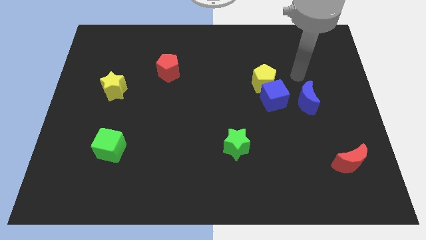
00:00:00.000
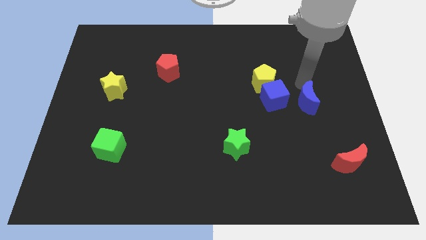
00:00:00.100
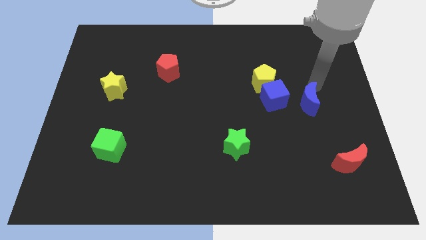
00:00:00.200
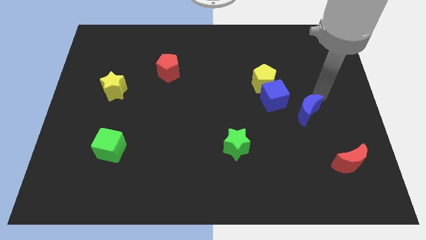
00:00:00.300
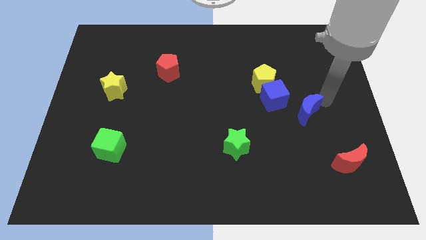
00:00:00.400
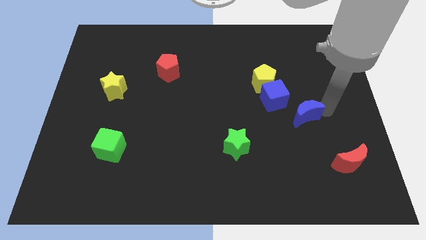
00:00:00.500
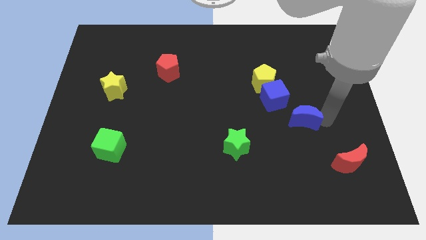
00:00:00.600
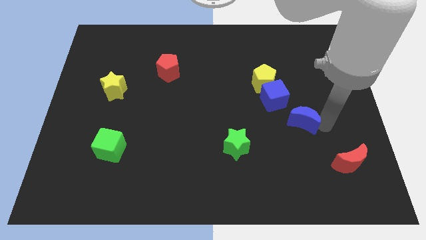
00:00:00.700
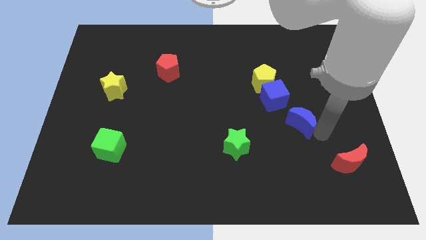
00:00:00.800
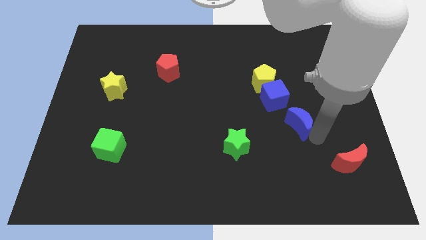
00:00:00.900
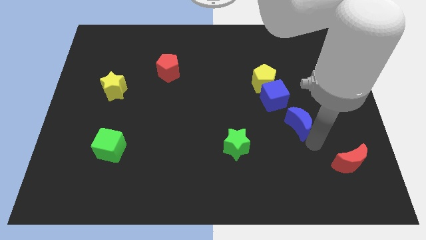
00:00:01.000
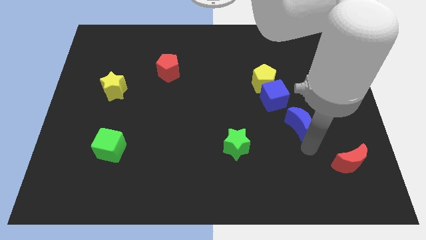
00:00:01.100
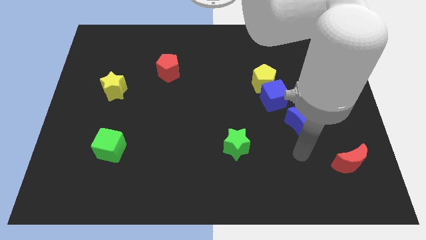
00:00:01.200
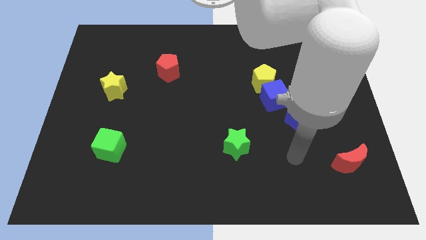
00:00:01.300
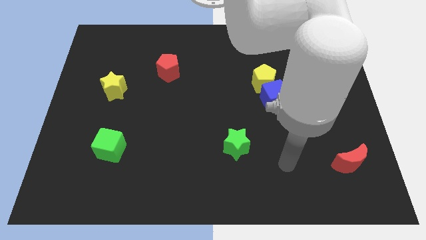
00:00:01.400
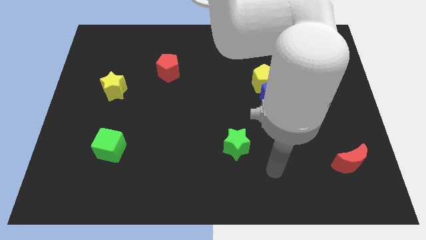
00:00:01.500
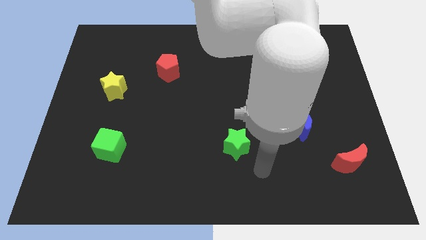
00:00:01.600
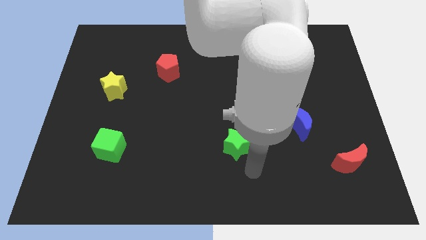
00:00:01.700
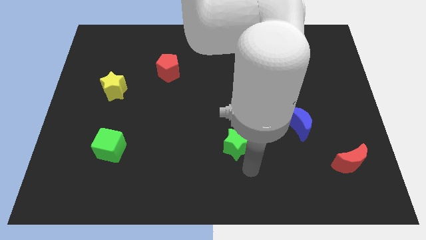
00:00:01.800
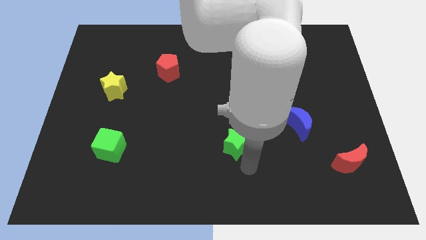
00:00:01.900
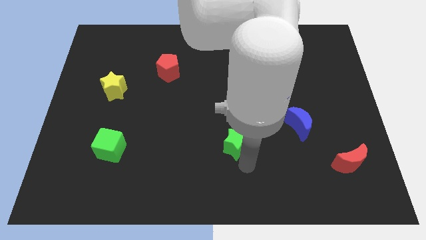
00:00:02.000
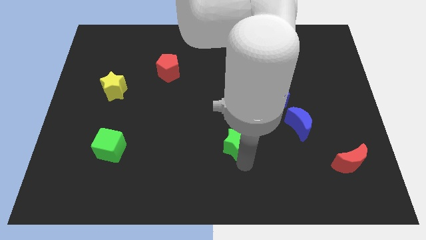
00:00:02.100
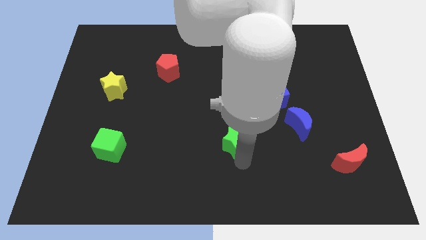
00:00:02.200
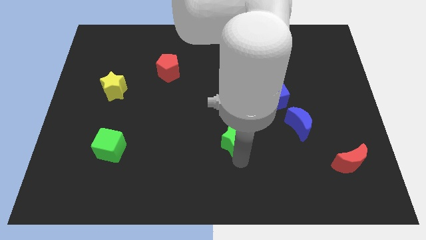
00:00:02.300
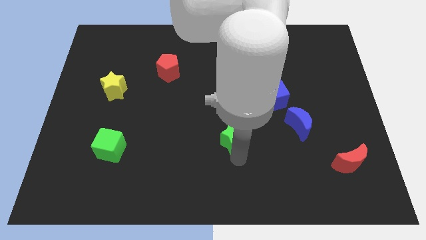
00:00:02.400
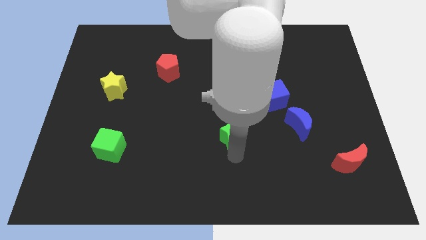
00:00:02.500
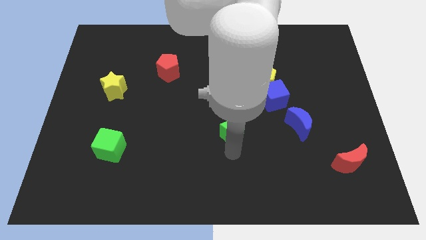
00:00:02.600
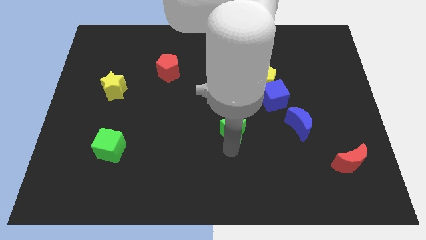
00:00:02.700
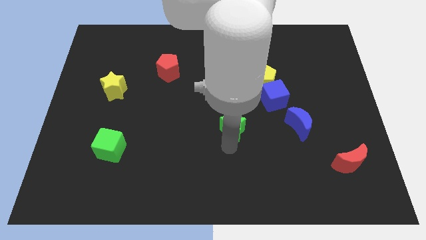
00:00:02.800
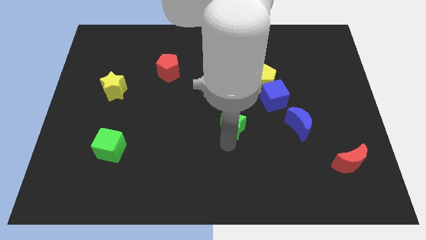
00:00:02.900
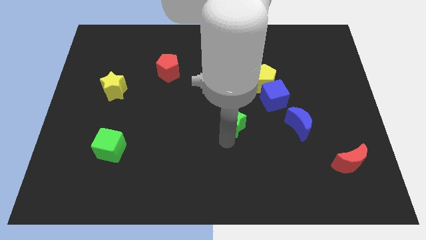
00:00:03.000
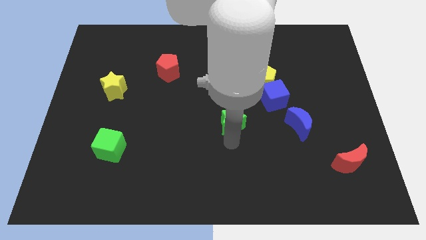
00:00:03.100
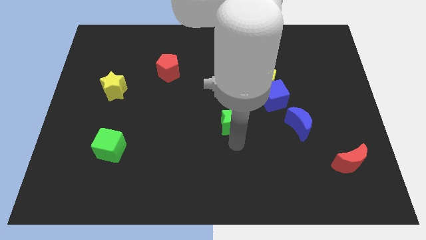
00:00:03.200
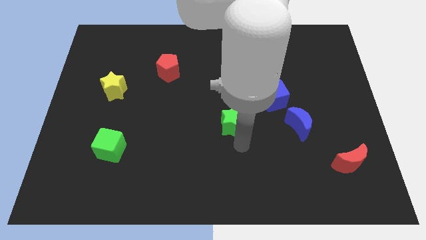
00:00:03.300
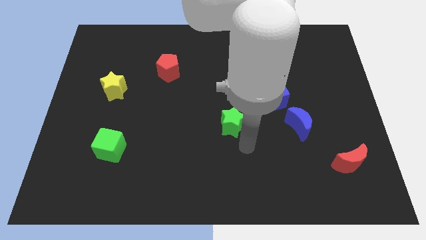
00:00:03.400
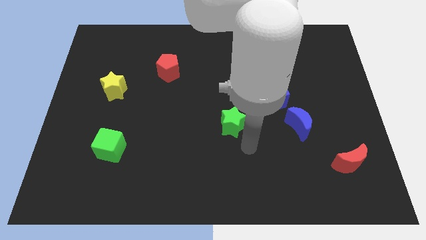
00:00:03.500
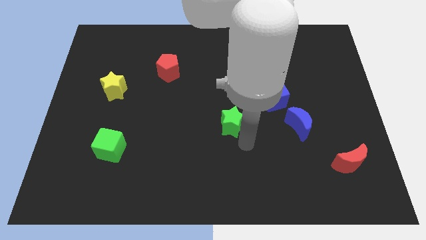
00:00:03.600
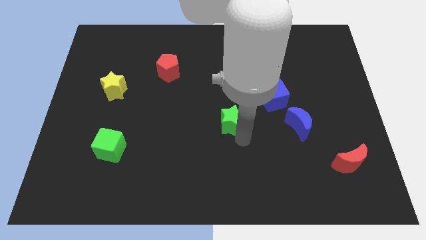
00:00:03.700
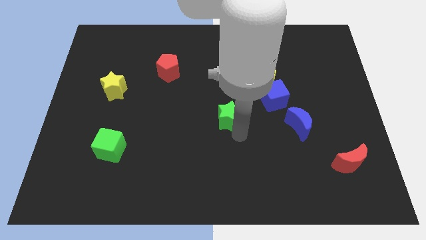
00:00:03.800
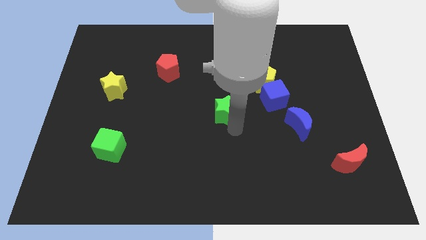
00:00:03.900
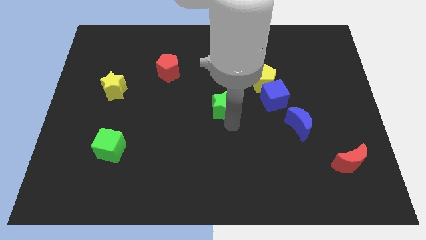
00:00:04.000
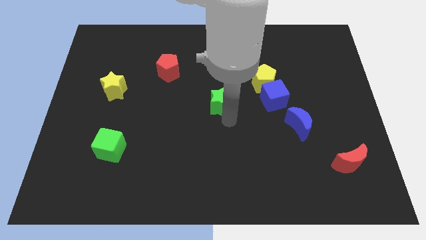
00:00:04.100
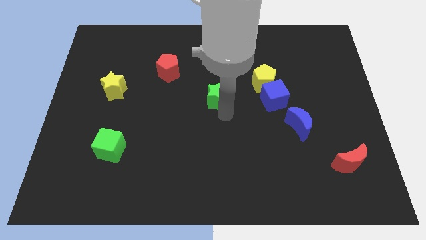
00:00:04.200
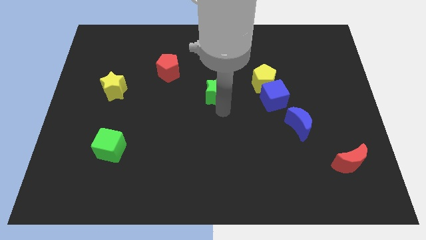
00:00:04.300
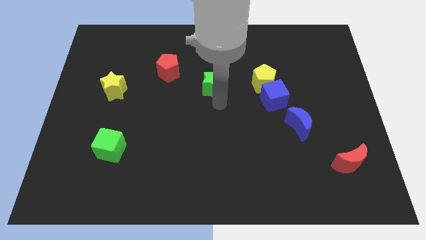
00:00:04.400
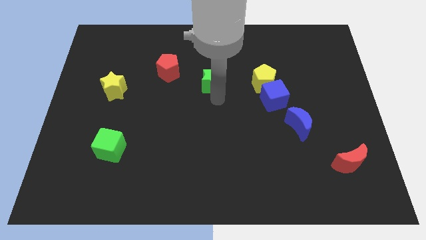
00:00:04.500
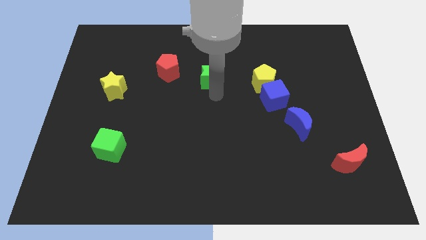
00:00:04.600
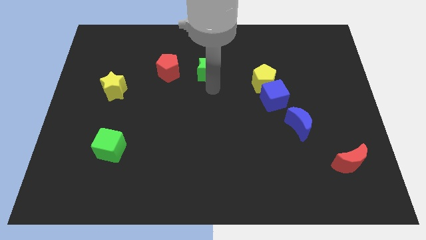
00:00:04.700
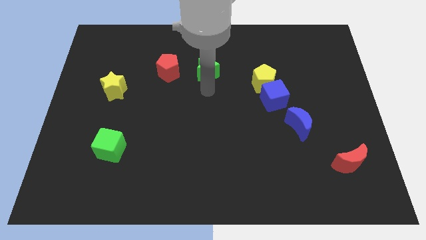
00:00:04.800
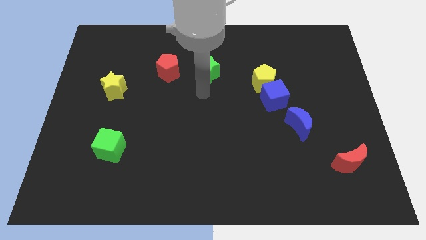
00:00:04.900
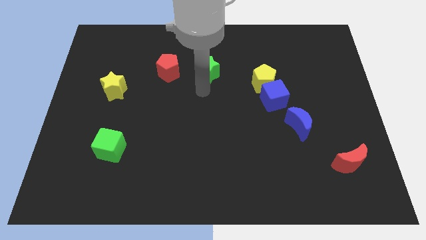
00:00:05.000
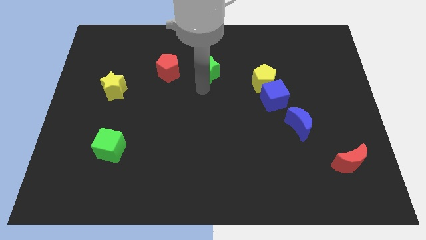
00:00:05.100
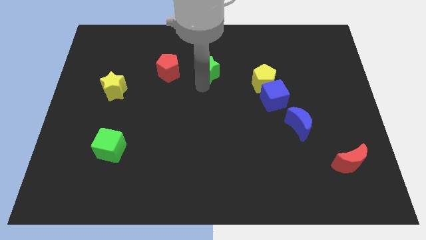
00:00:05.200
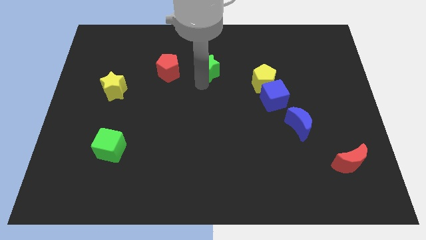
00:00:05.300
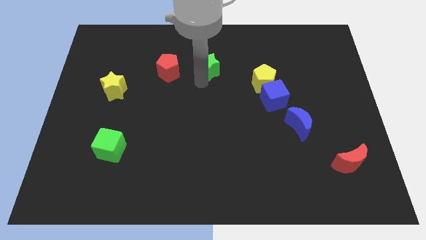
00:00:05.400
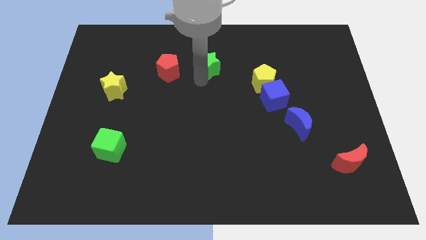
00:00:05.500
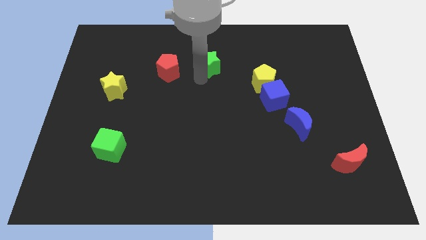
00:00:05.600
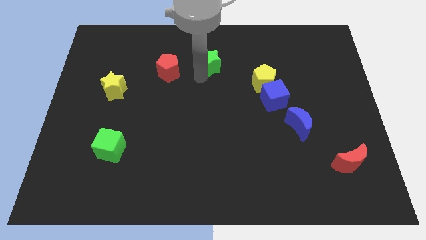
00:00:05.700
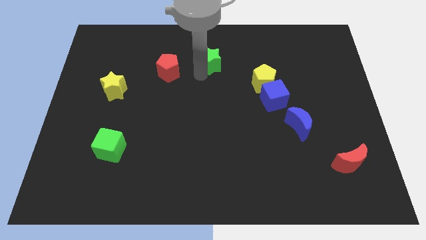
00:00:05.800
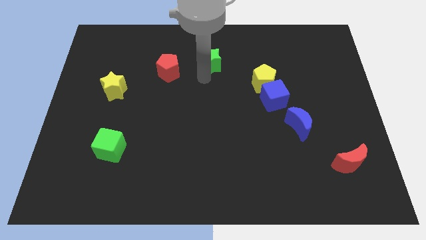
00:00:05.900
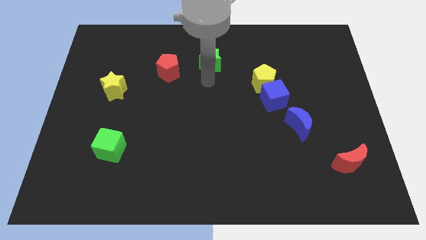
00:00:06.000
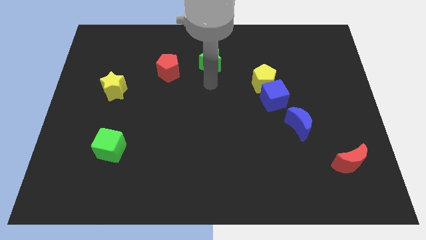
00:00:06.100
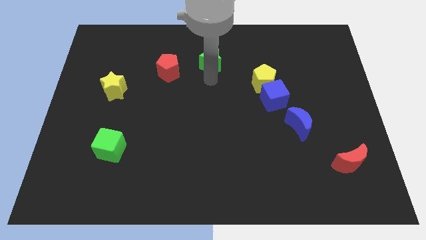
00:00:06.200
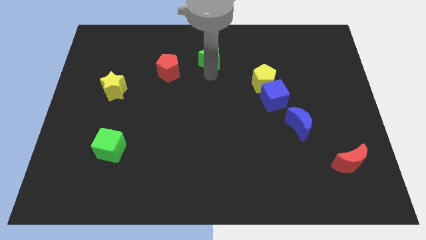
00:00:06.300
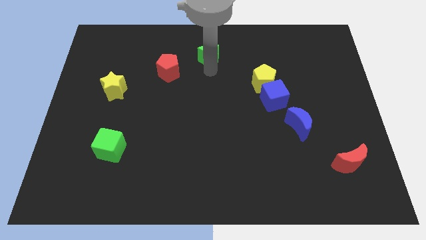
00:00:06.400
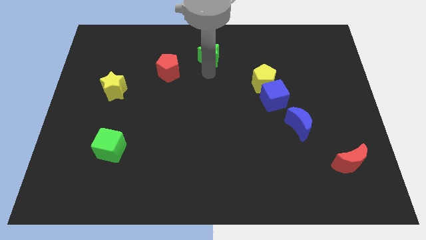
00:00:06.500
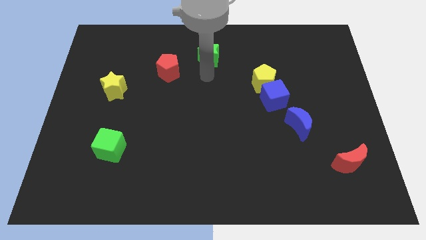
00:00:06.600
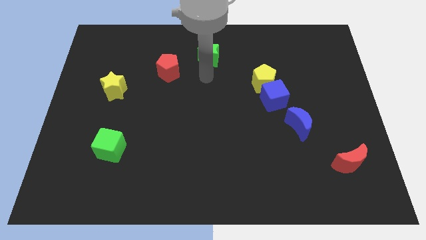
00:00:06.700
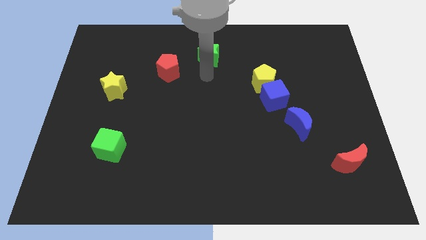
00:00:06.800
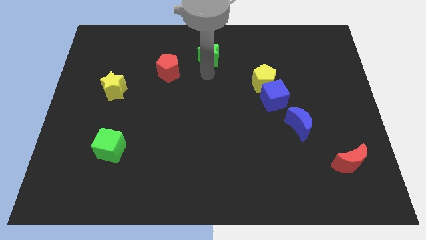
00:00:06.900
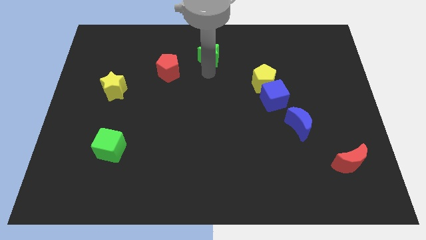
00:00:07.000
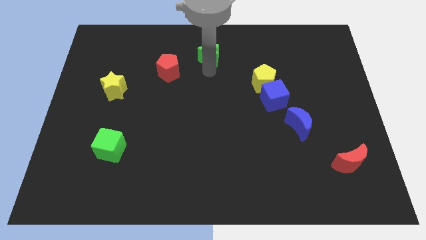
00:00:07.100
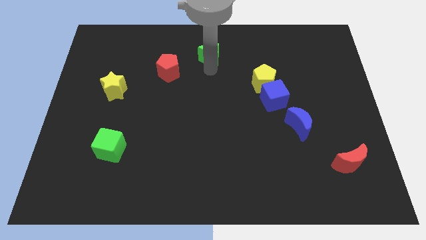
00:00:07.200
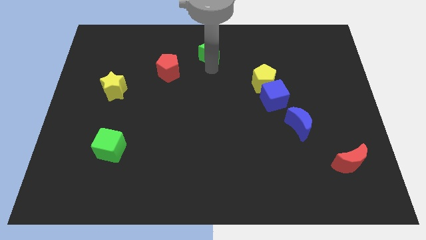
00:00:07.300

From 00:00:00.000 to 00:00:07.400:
push the green star to the top
